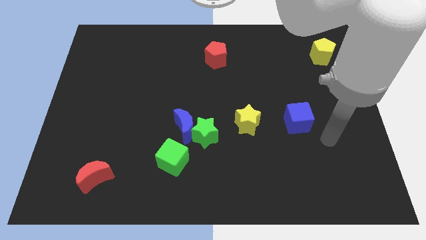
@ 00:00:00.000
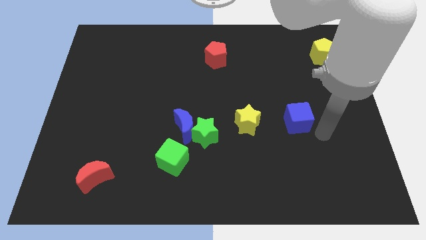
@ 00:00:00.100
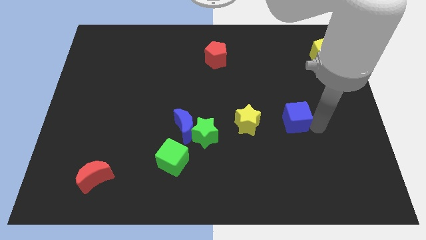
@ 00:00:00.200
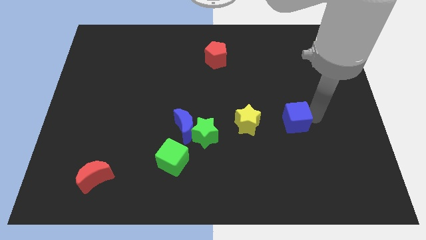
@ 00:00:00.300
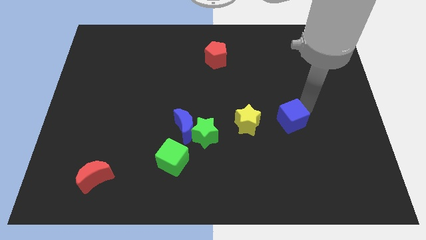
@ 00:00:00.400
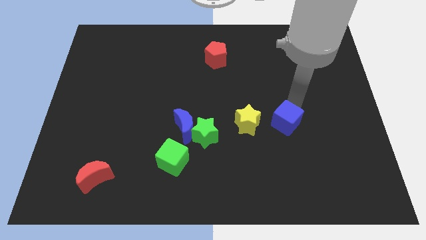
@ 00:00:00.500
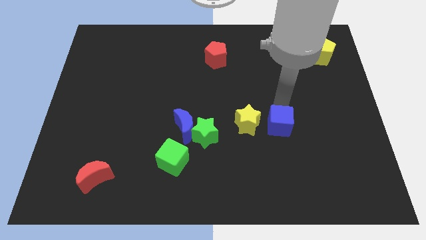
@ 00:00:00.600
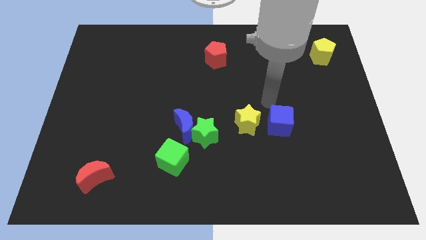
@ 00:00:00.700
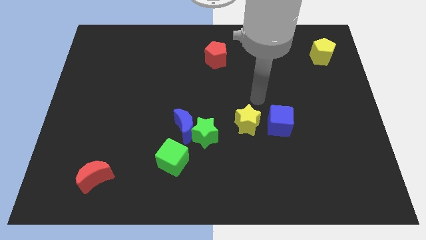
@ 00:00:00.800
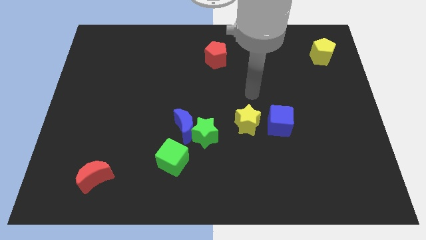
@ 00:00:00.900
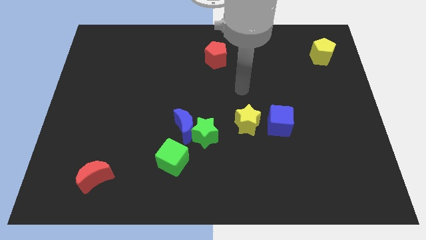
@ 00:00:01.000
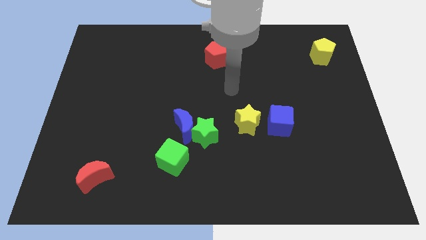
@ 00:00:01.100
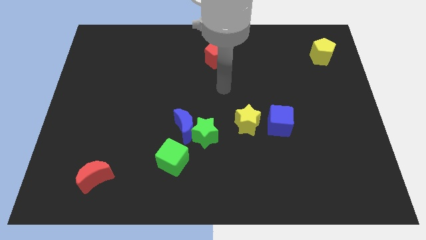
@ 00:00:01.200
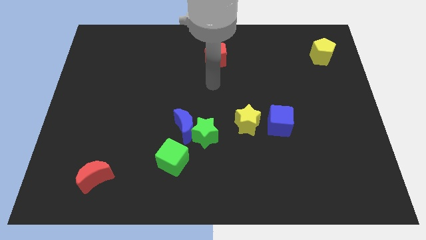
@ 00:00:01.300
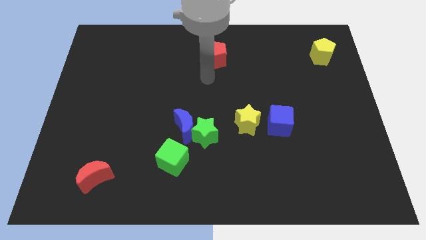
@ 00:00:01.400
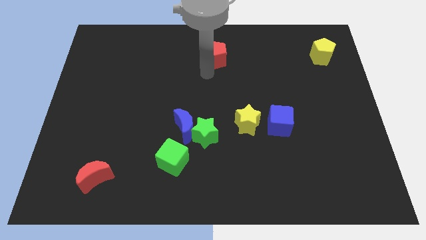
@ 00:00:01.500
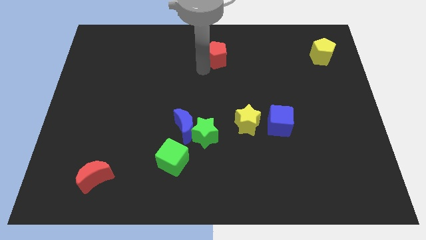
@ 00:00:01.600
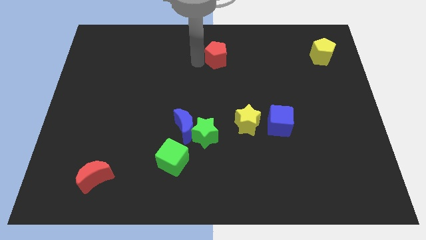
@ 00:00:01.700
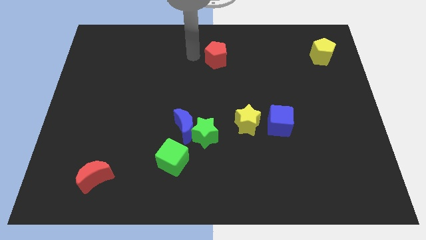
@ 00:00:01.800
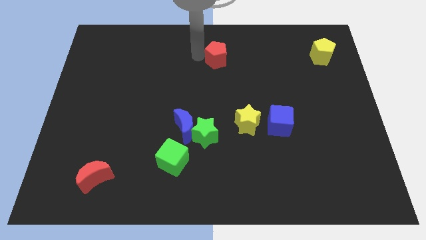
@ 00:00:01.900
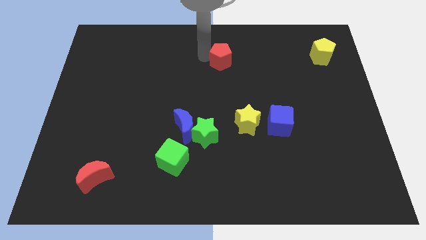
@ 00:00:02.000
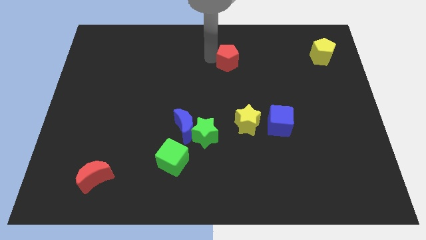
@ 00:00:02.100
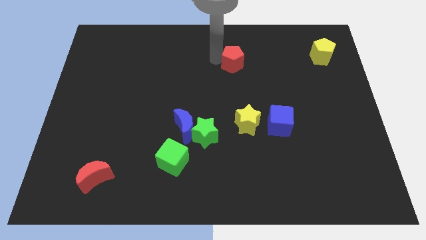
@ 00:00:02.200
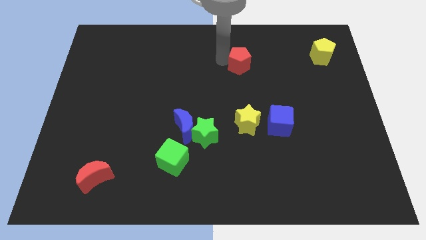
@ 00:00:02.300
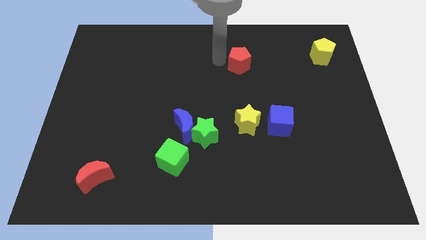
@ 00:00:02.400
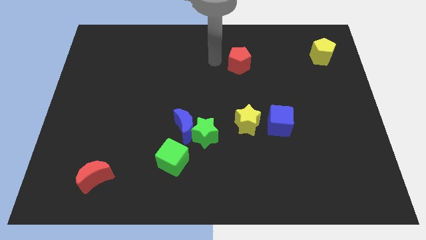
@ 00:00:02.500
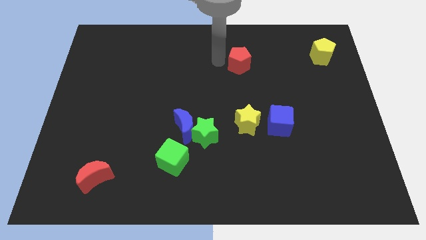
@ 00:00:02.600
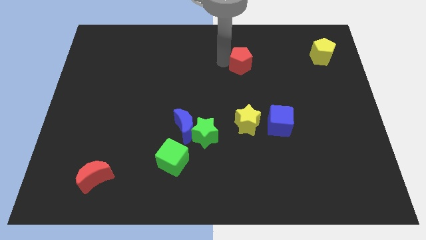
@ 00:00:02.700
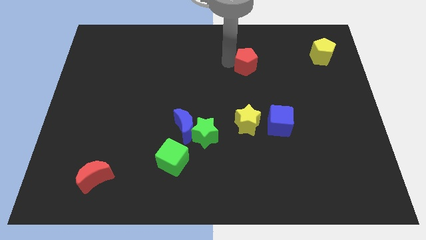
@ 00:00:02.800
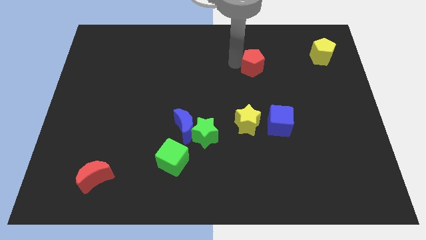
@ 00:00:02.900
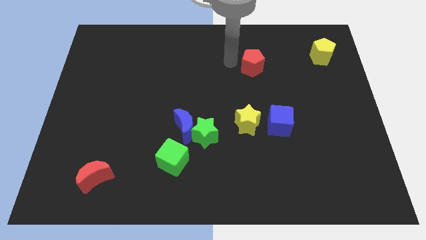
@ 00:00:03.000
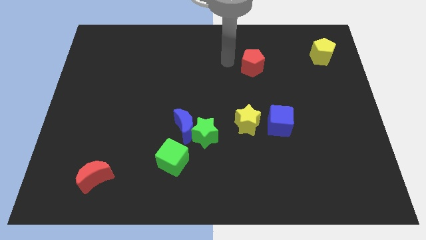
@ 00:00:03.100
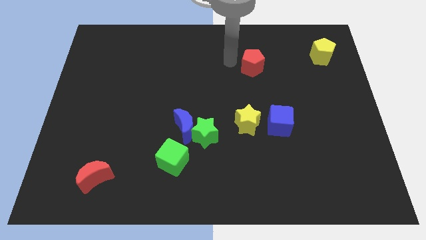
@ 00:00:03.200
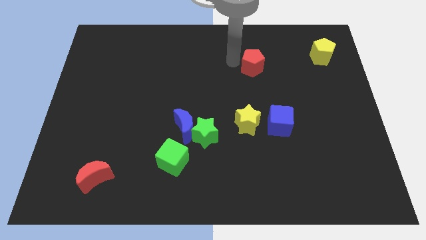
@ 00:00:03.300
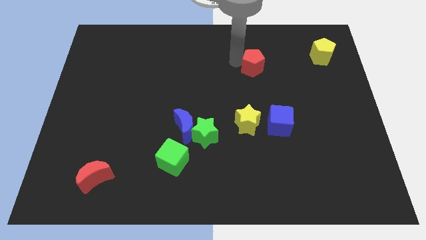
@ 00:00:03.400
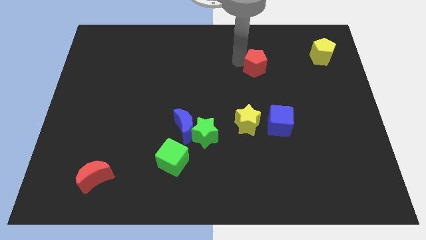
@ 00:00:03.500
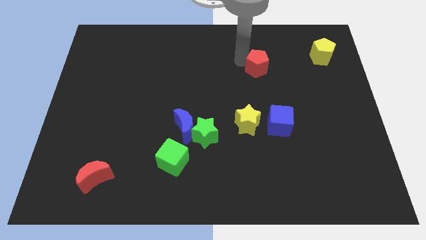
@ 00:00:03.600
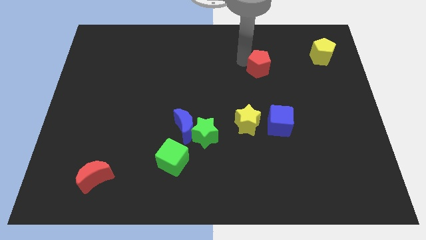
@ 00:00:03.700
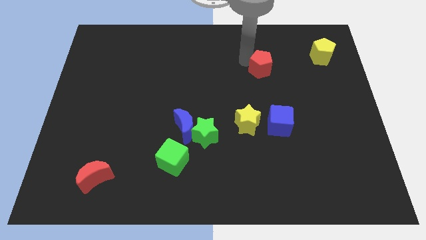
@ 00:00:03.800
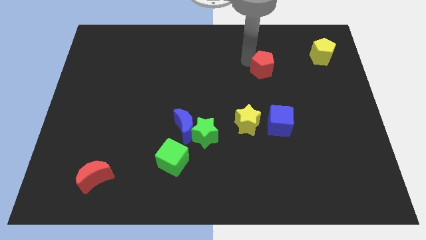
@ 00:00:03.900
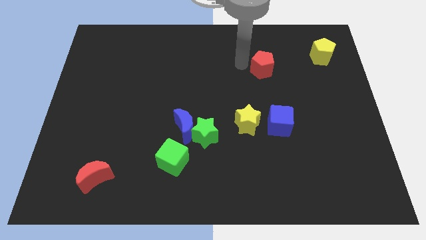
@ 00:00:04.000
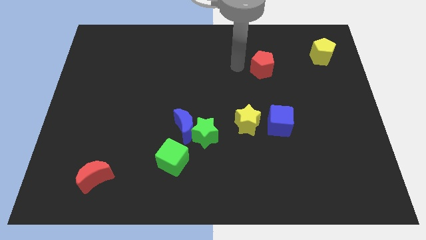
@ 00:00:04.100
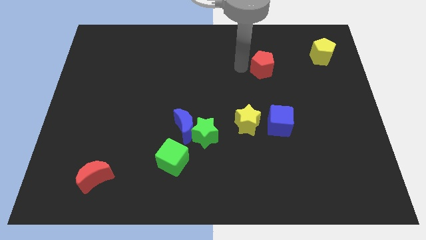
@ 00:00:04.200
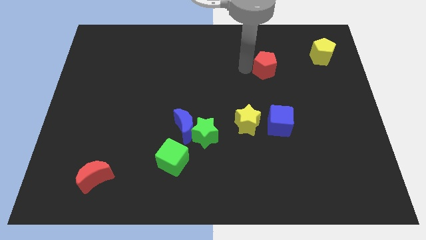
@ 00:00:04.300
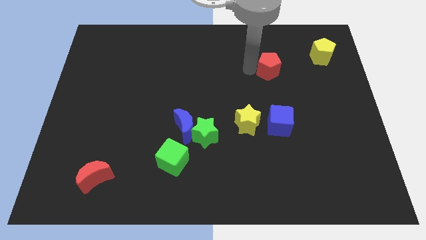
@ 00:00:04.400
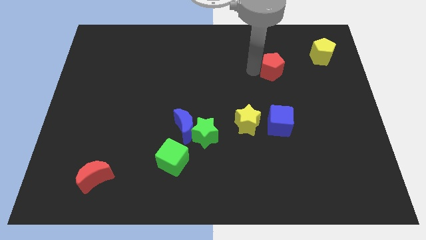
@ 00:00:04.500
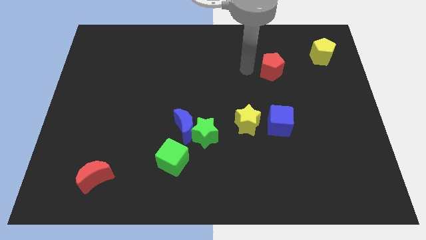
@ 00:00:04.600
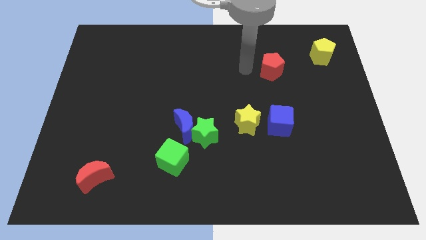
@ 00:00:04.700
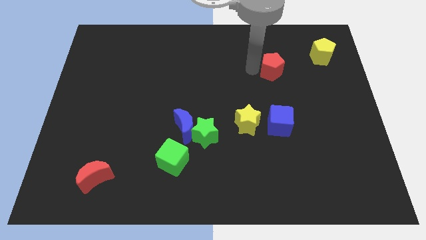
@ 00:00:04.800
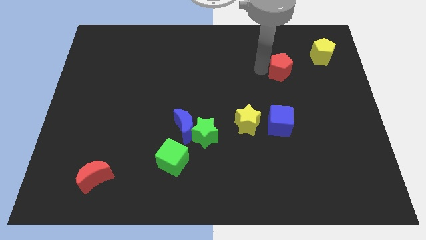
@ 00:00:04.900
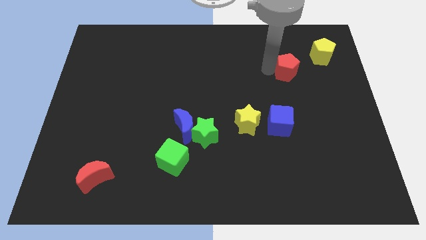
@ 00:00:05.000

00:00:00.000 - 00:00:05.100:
push the red pentagon to the bottom left side of the yellow pentagon

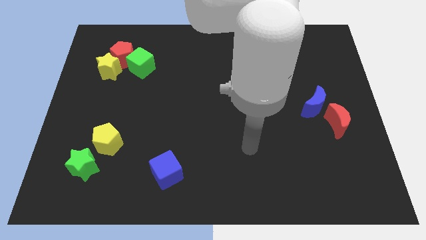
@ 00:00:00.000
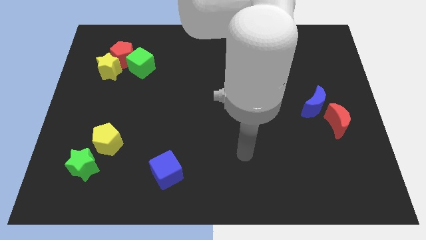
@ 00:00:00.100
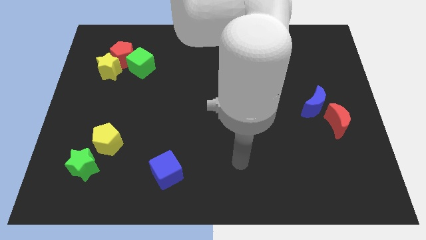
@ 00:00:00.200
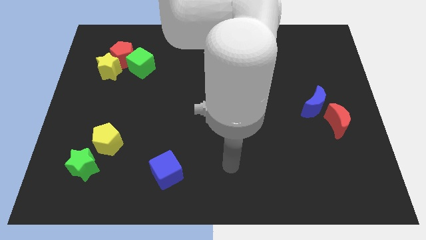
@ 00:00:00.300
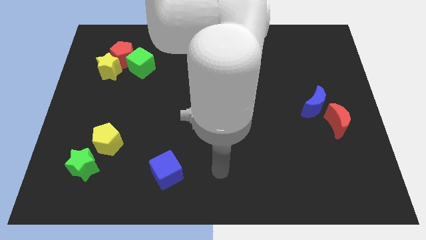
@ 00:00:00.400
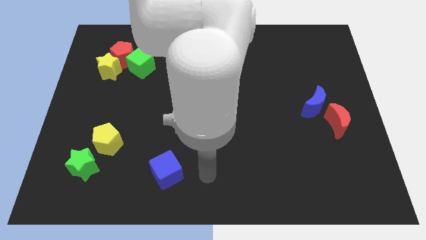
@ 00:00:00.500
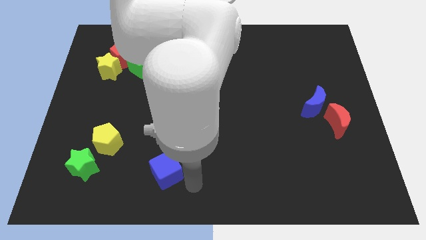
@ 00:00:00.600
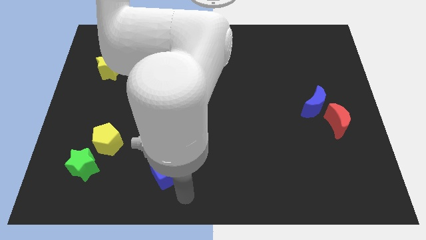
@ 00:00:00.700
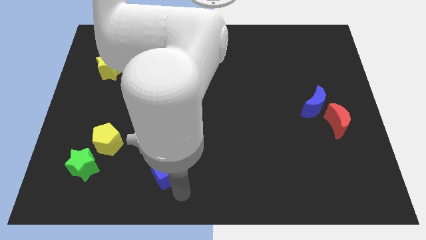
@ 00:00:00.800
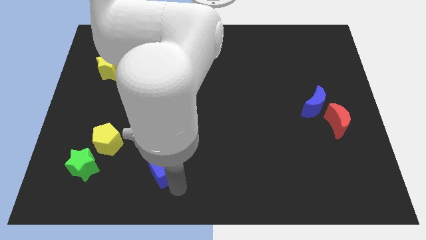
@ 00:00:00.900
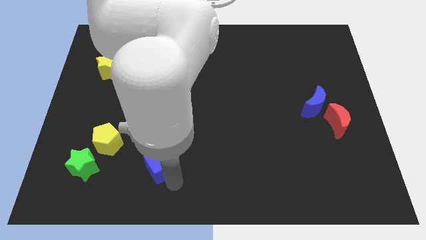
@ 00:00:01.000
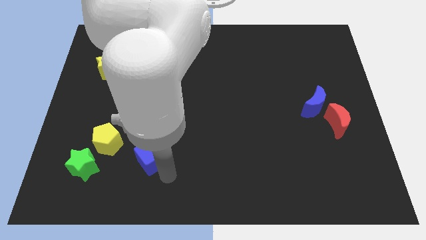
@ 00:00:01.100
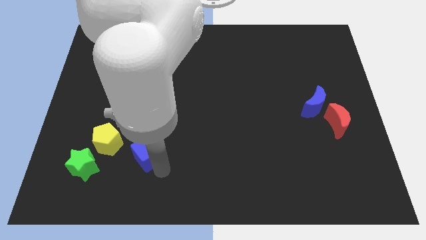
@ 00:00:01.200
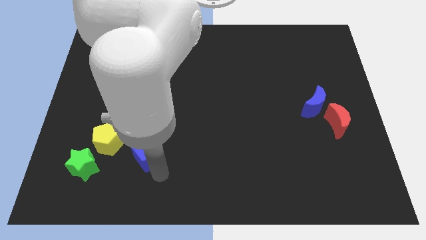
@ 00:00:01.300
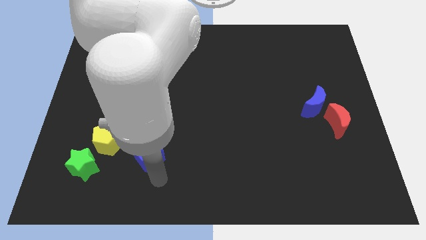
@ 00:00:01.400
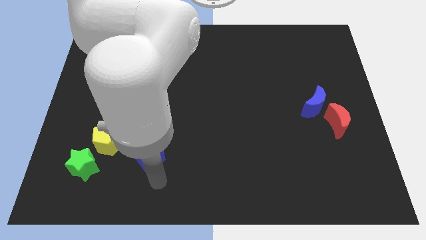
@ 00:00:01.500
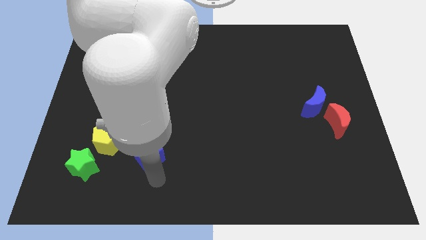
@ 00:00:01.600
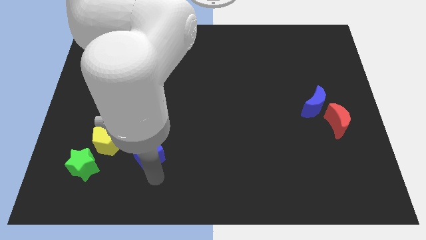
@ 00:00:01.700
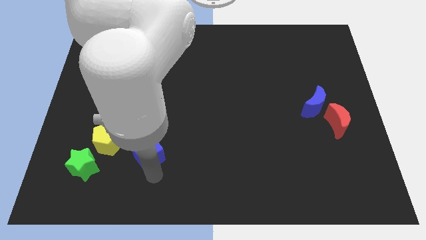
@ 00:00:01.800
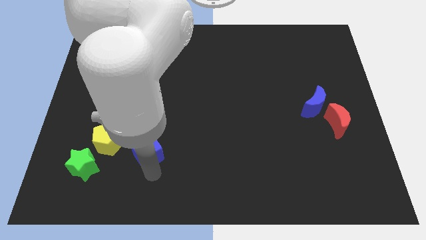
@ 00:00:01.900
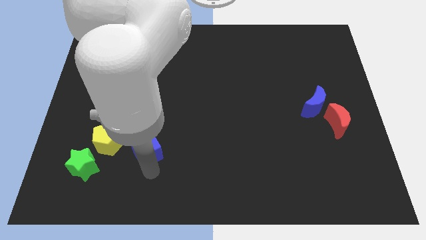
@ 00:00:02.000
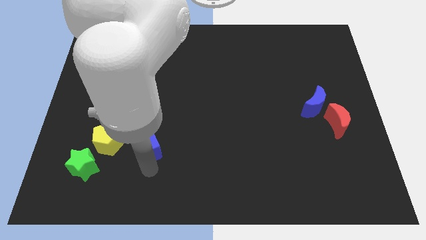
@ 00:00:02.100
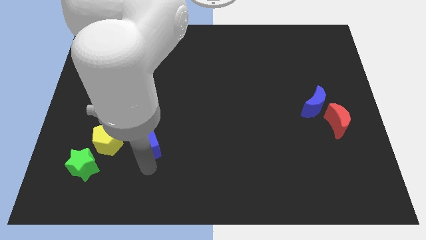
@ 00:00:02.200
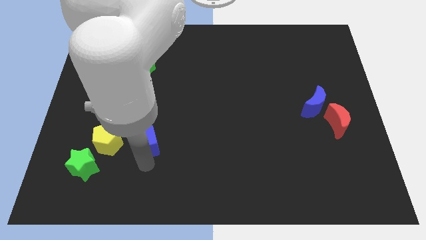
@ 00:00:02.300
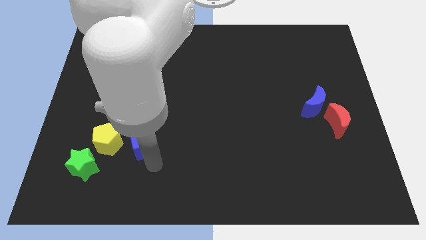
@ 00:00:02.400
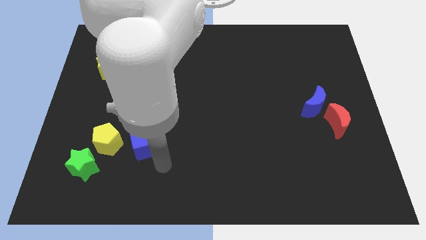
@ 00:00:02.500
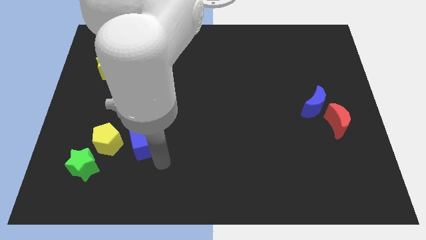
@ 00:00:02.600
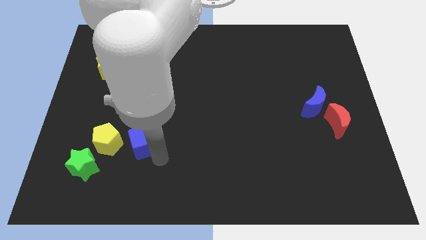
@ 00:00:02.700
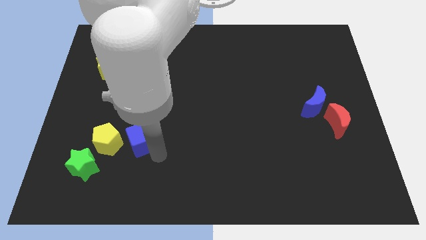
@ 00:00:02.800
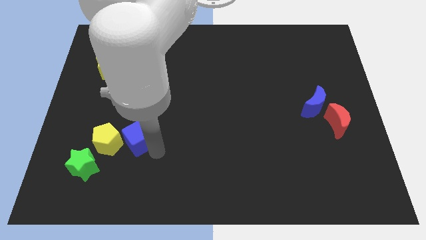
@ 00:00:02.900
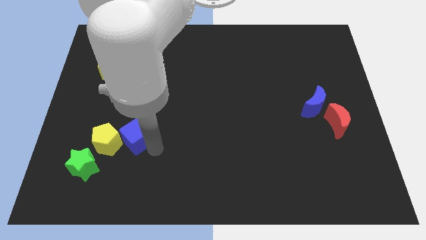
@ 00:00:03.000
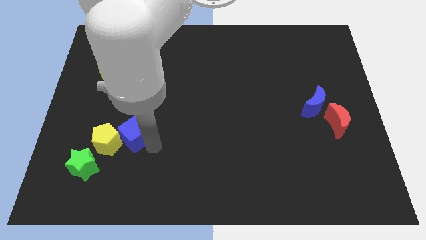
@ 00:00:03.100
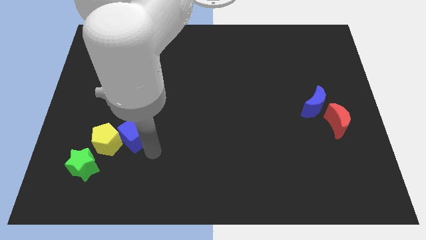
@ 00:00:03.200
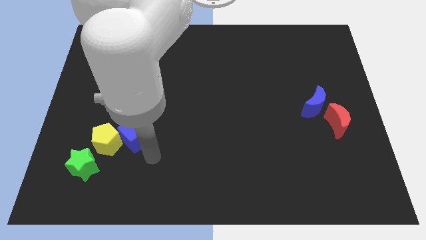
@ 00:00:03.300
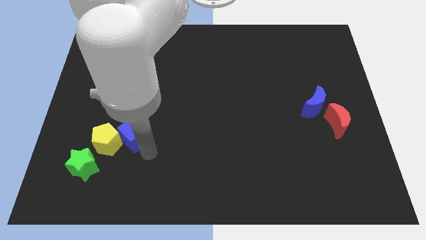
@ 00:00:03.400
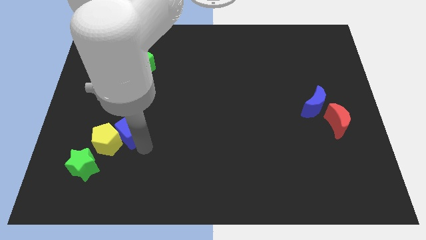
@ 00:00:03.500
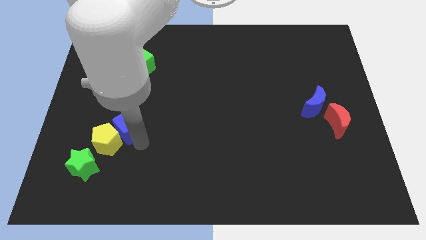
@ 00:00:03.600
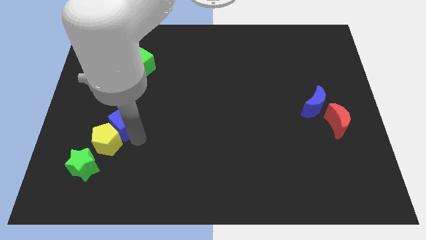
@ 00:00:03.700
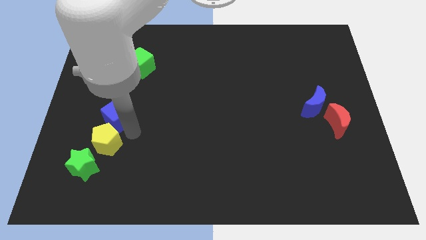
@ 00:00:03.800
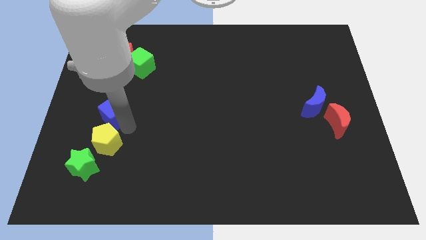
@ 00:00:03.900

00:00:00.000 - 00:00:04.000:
move the blue cube to the bottom of the yellow star
